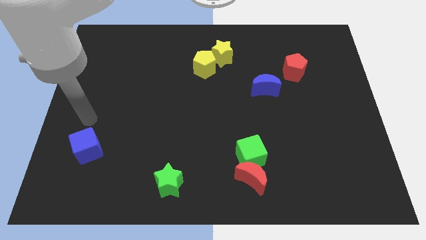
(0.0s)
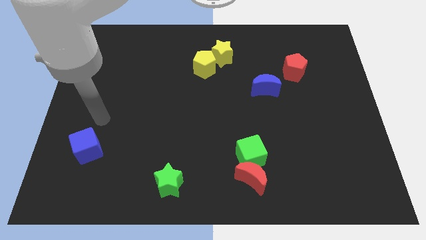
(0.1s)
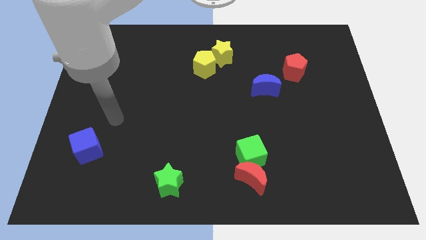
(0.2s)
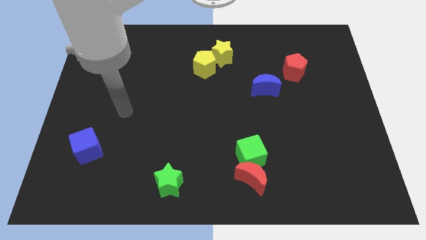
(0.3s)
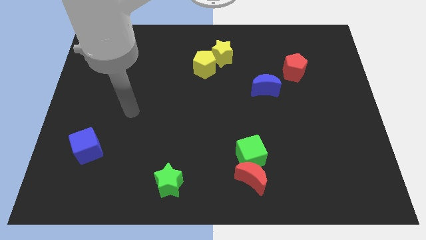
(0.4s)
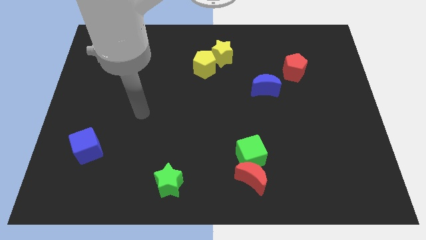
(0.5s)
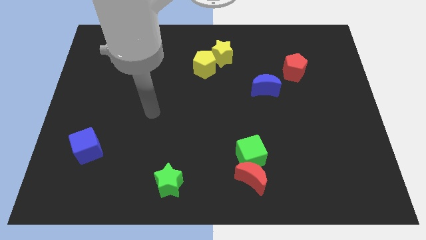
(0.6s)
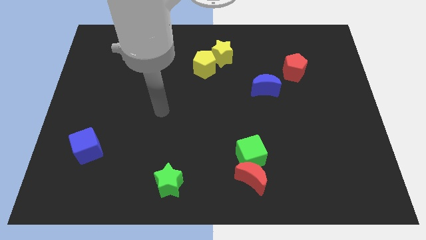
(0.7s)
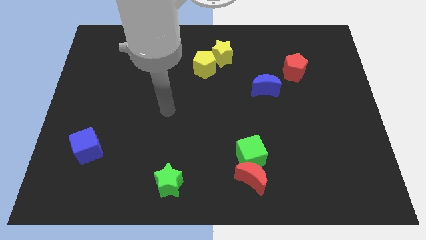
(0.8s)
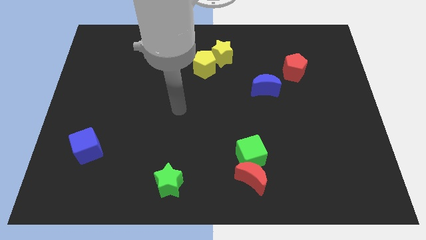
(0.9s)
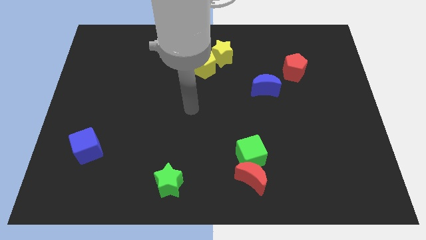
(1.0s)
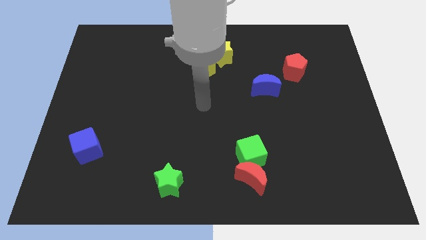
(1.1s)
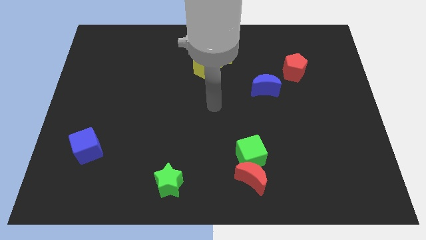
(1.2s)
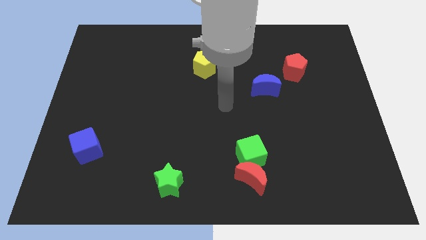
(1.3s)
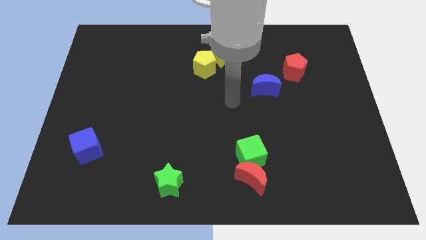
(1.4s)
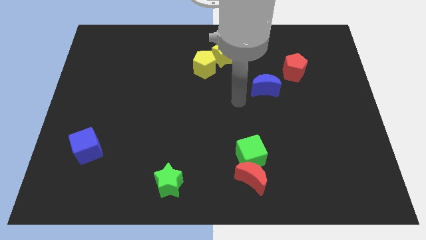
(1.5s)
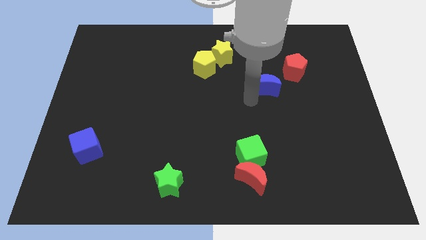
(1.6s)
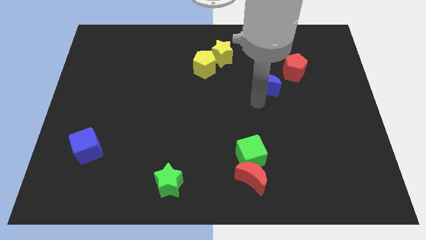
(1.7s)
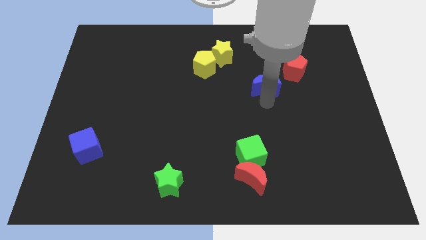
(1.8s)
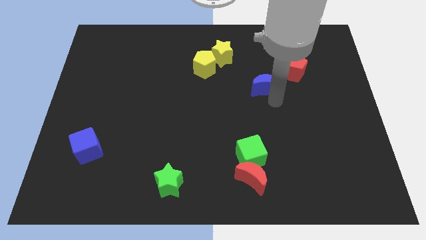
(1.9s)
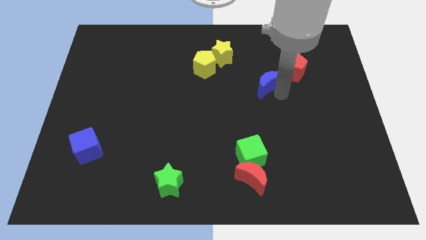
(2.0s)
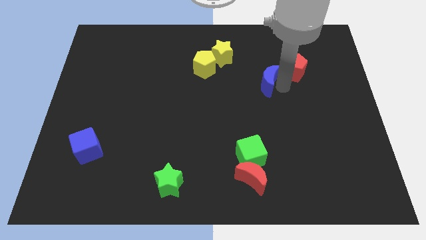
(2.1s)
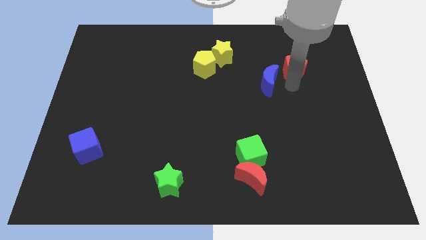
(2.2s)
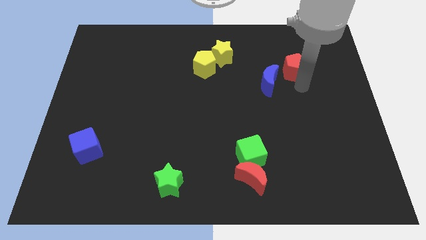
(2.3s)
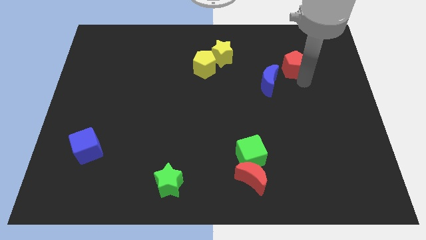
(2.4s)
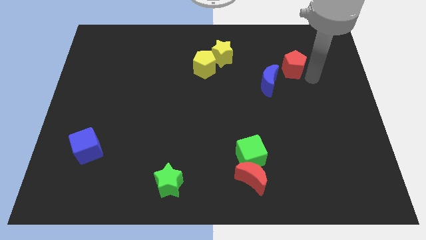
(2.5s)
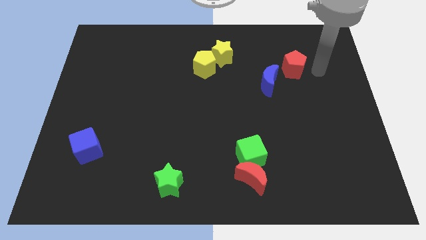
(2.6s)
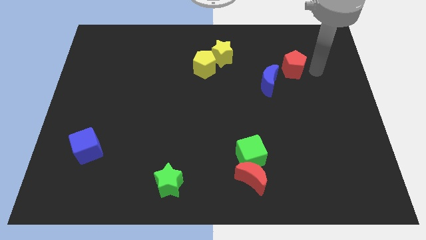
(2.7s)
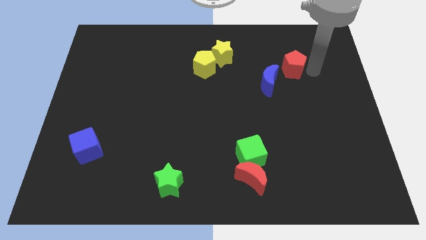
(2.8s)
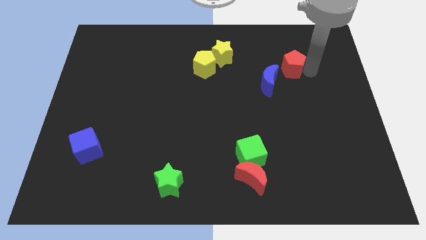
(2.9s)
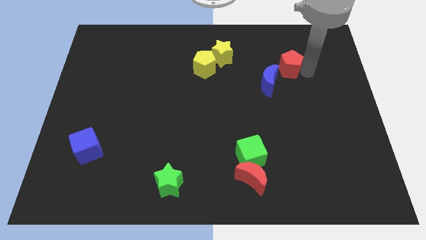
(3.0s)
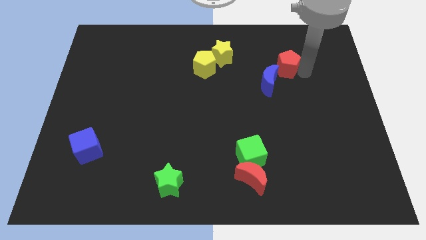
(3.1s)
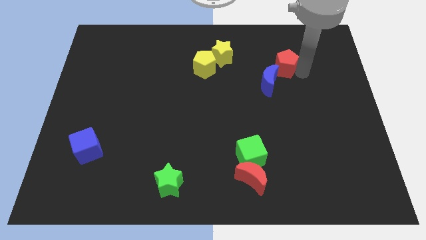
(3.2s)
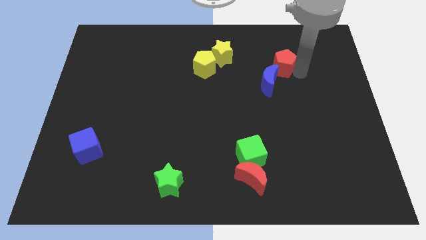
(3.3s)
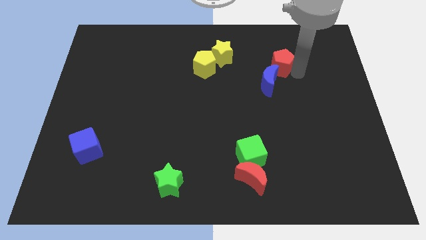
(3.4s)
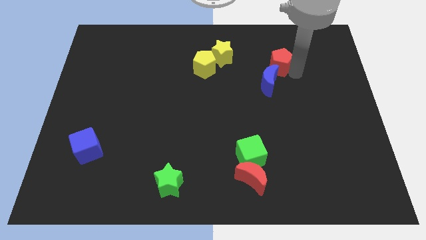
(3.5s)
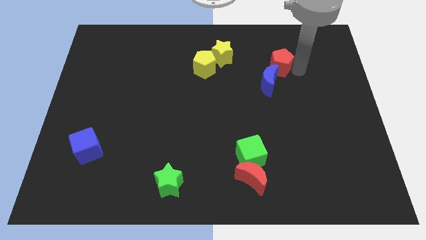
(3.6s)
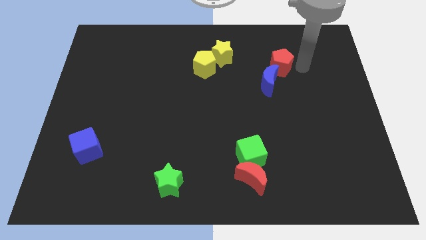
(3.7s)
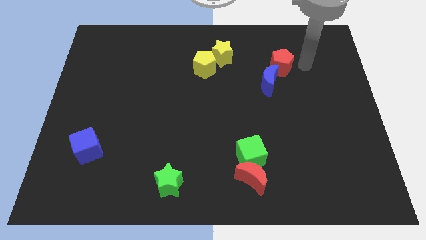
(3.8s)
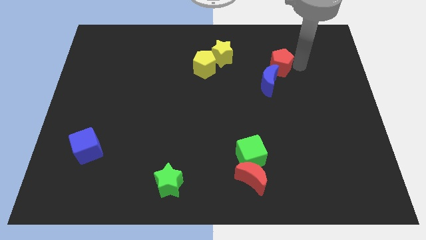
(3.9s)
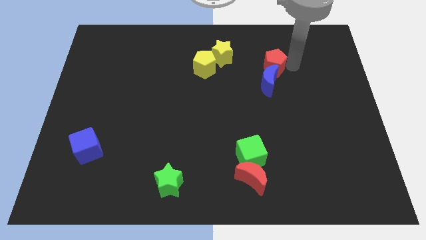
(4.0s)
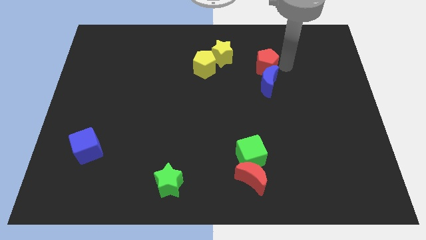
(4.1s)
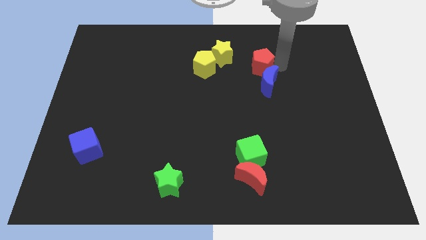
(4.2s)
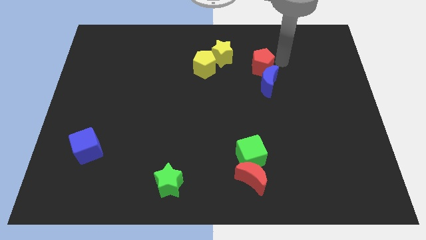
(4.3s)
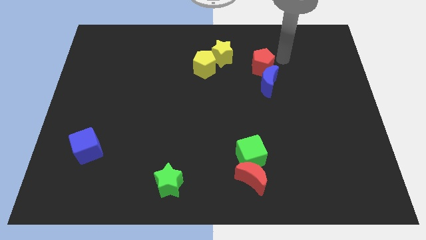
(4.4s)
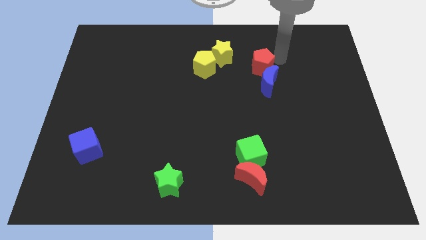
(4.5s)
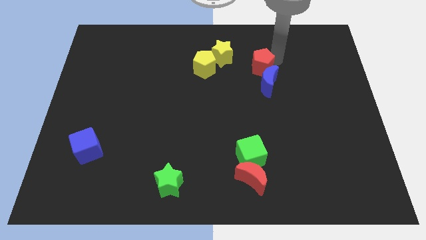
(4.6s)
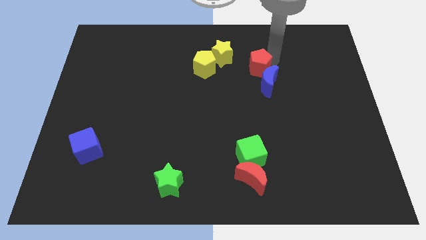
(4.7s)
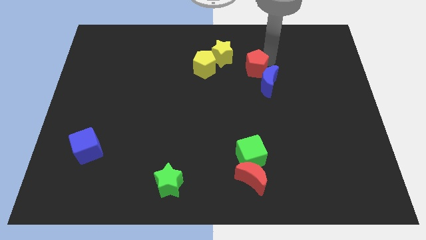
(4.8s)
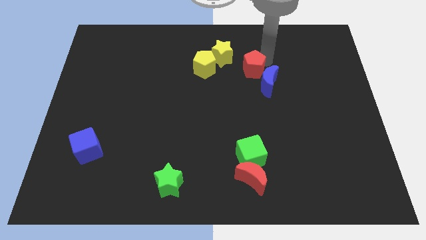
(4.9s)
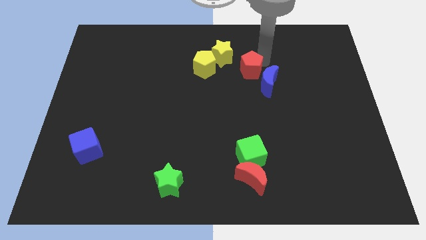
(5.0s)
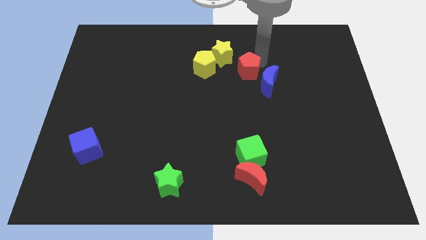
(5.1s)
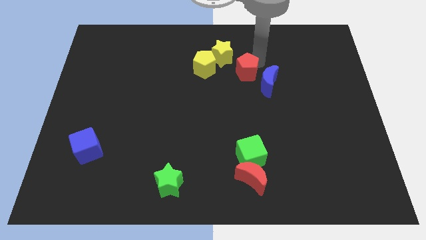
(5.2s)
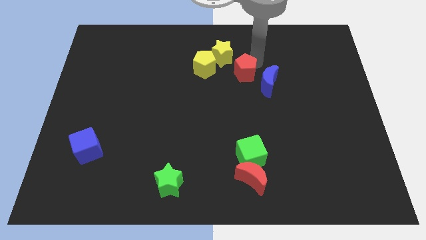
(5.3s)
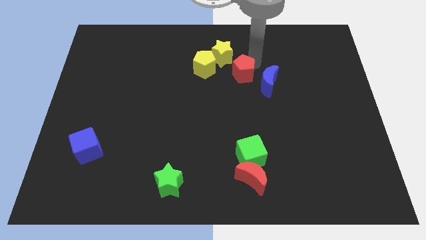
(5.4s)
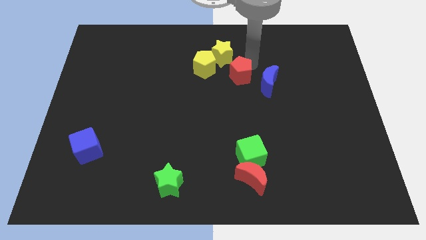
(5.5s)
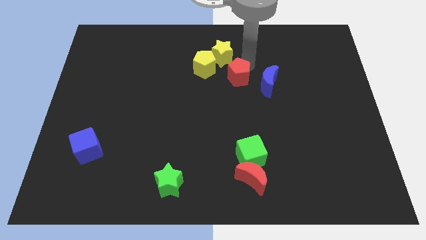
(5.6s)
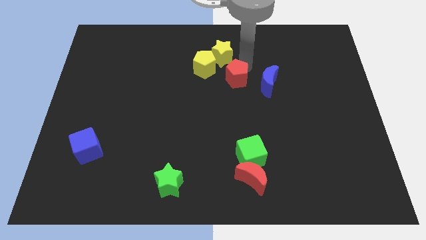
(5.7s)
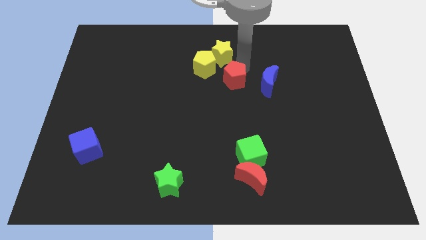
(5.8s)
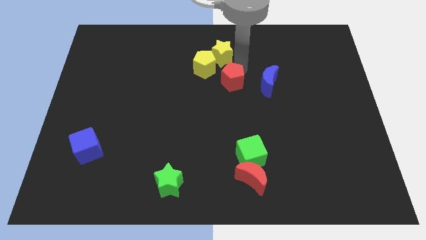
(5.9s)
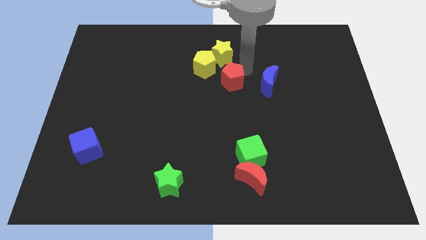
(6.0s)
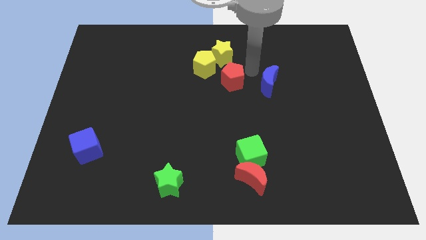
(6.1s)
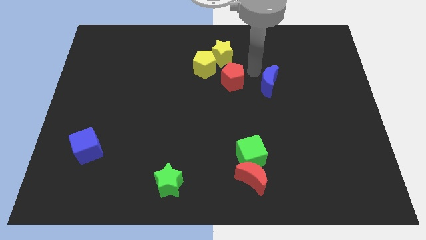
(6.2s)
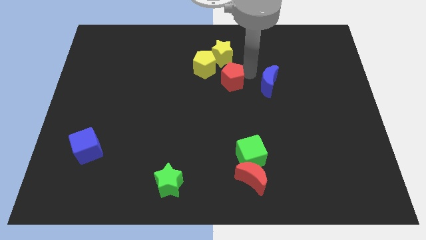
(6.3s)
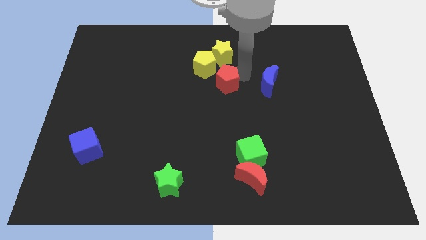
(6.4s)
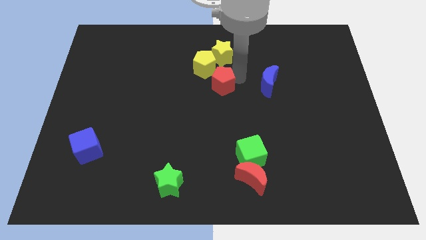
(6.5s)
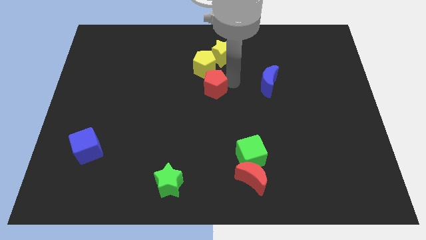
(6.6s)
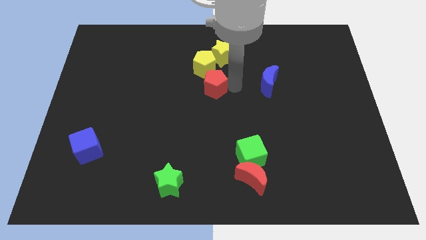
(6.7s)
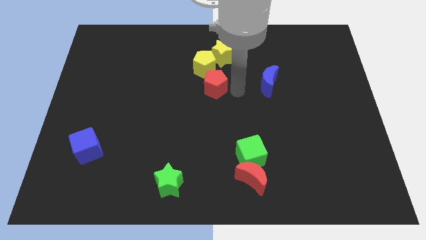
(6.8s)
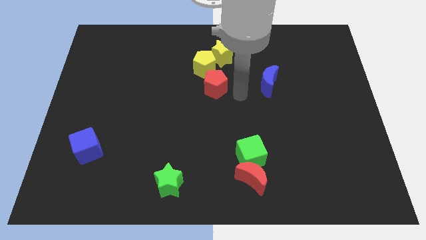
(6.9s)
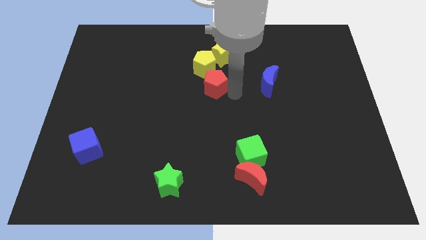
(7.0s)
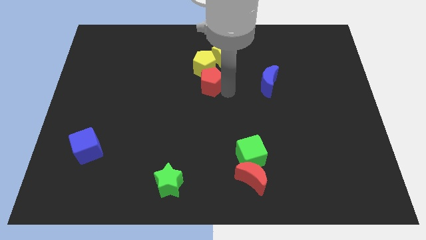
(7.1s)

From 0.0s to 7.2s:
push the red pentagon left
